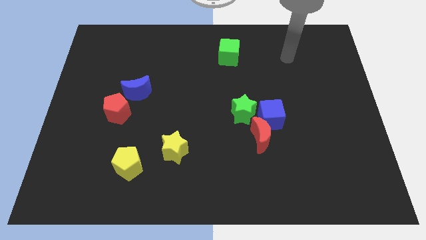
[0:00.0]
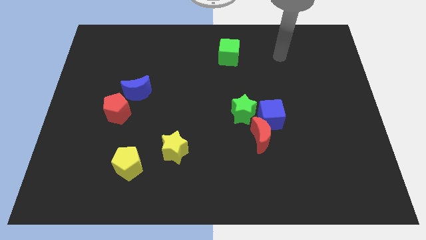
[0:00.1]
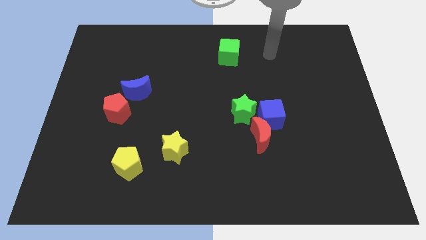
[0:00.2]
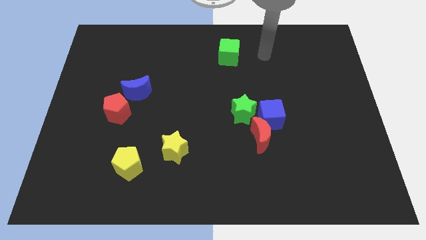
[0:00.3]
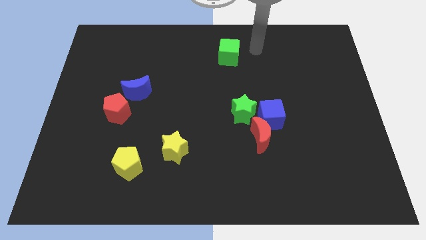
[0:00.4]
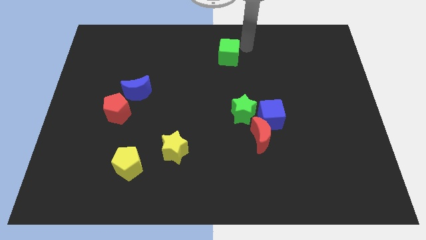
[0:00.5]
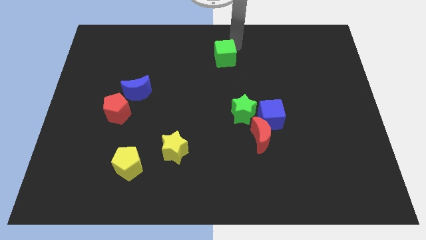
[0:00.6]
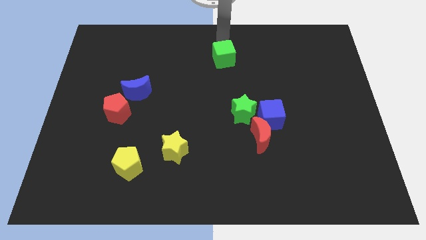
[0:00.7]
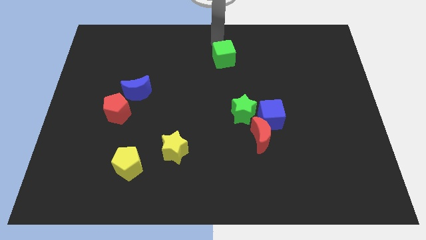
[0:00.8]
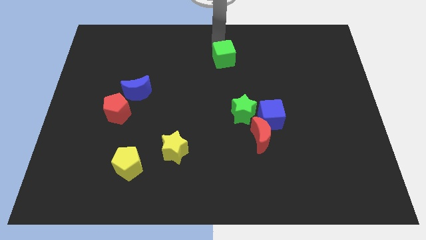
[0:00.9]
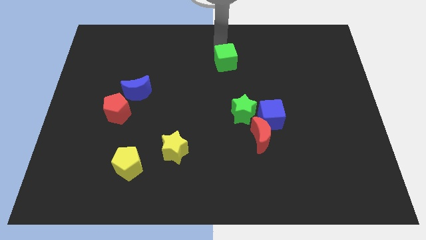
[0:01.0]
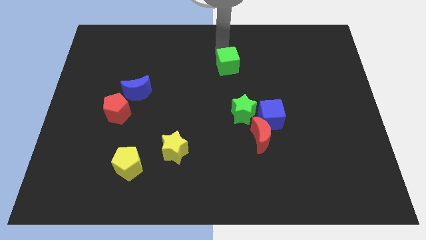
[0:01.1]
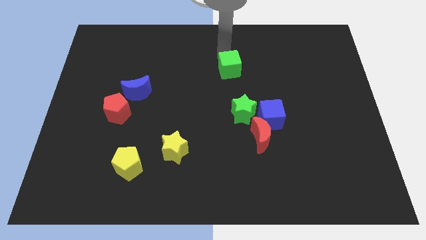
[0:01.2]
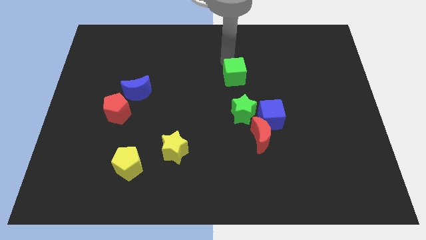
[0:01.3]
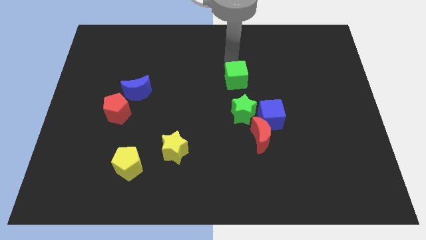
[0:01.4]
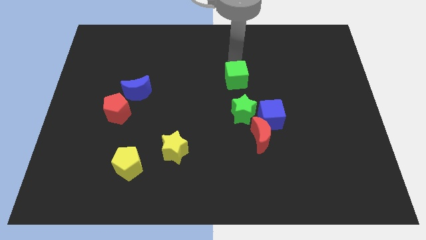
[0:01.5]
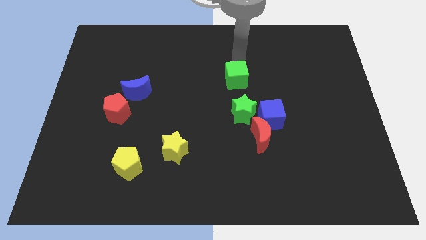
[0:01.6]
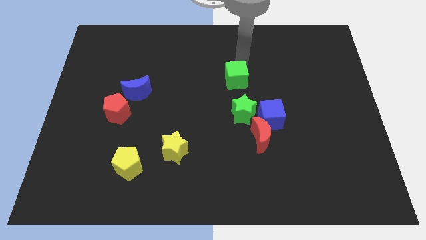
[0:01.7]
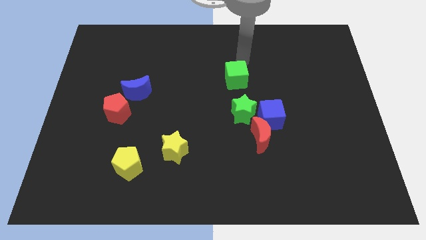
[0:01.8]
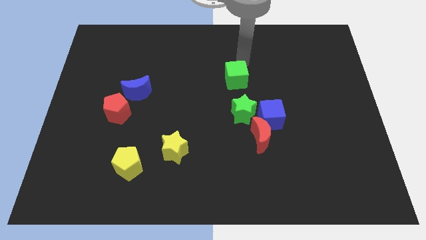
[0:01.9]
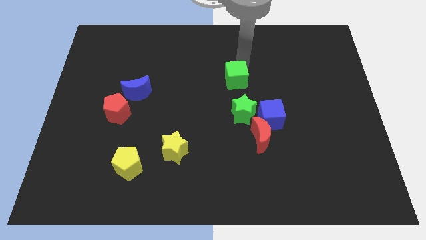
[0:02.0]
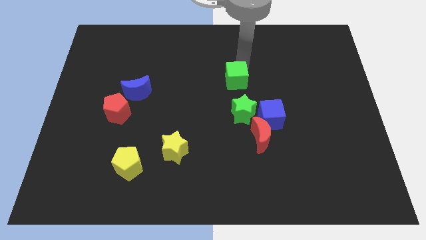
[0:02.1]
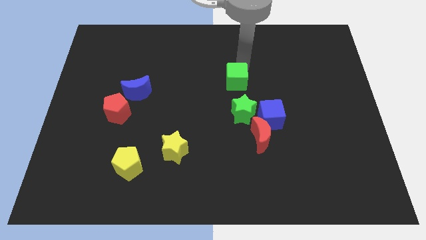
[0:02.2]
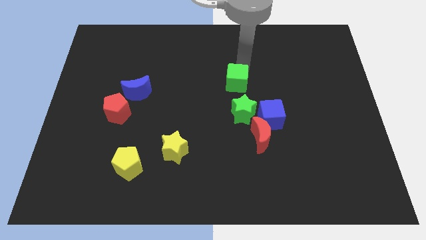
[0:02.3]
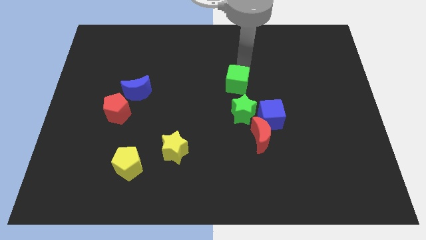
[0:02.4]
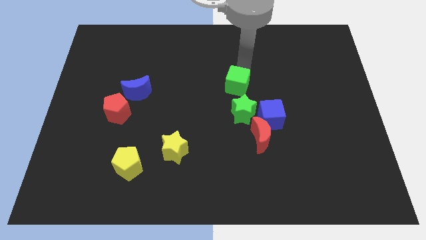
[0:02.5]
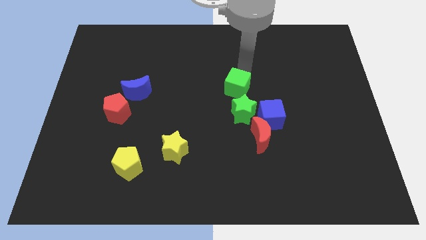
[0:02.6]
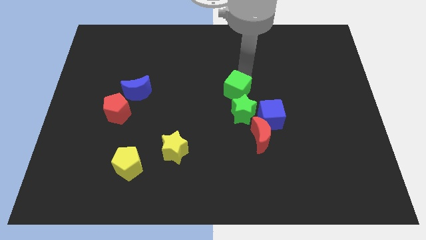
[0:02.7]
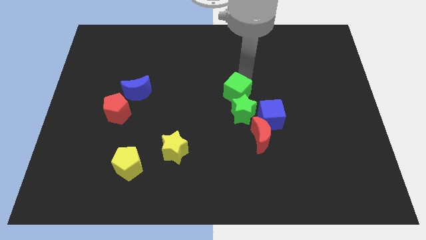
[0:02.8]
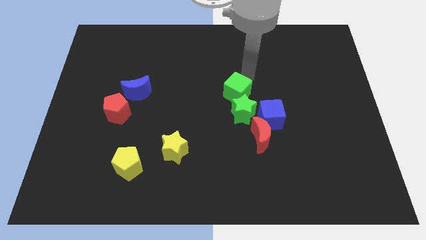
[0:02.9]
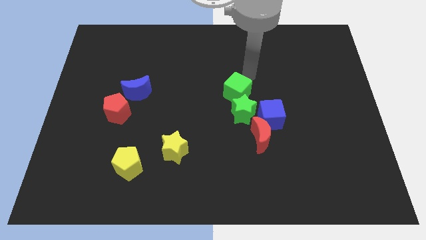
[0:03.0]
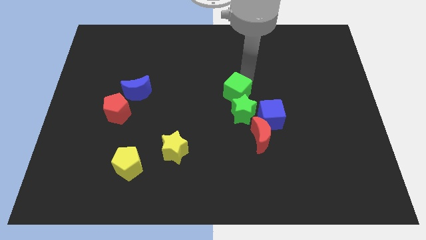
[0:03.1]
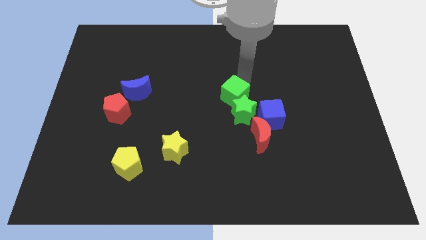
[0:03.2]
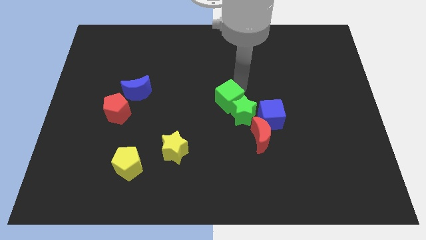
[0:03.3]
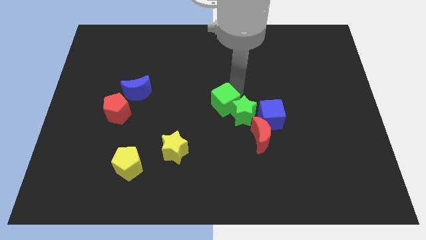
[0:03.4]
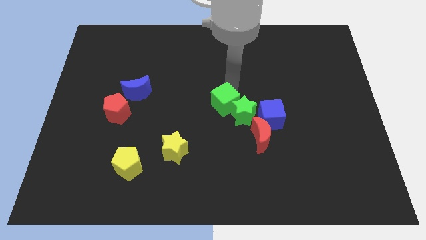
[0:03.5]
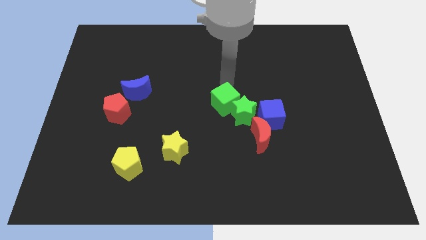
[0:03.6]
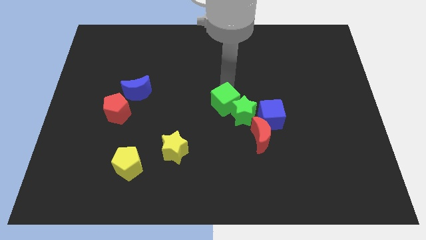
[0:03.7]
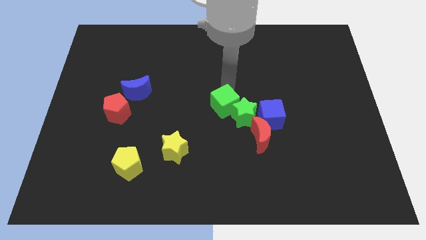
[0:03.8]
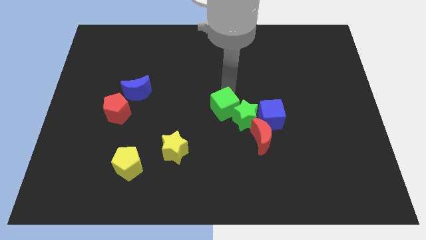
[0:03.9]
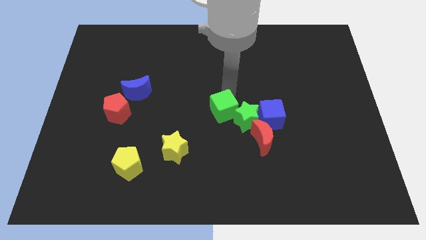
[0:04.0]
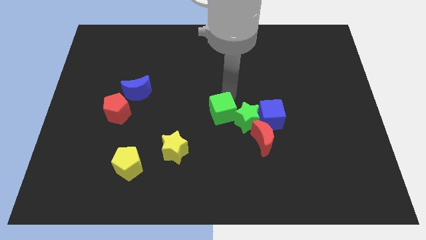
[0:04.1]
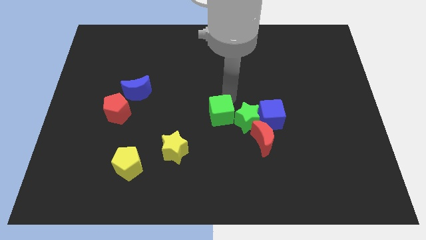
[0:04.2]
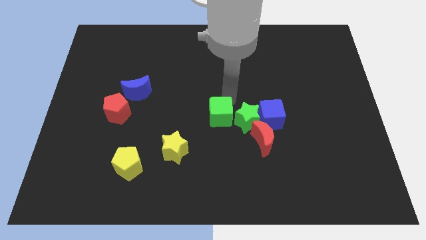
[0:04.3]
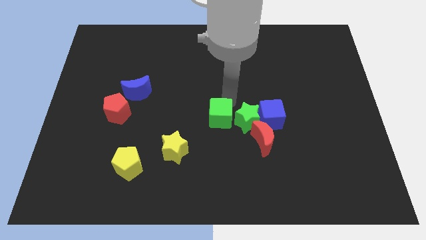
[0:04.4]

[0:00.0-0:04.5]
slide the green cube downwards

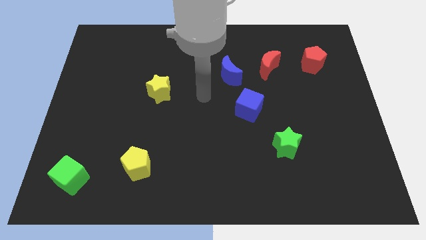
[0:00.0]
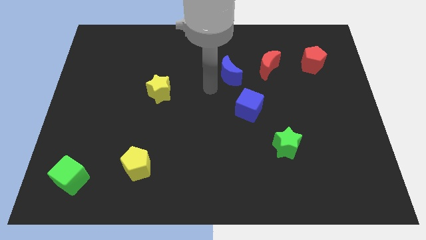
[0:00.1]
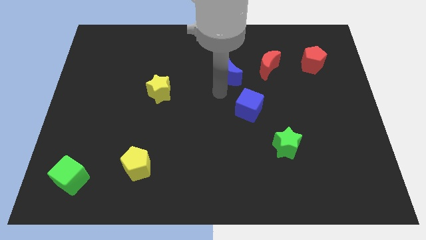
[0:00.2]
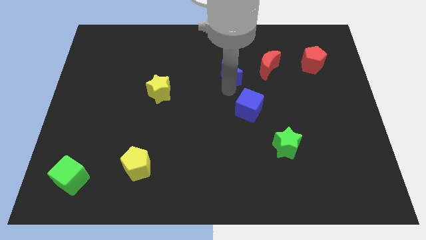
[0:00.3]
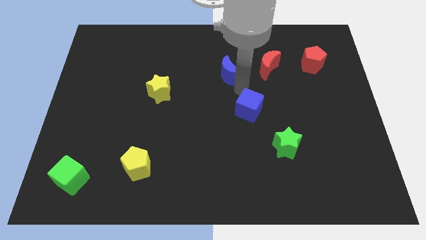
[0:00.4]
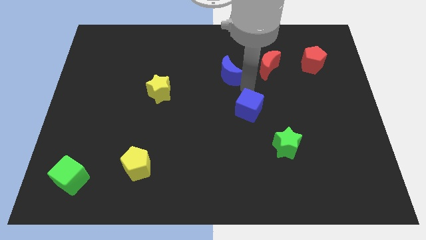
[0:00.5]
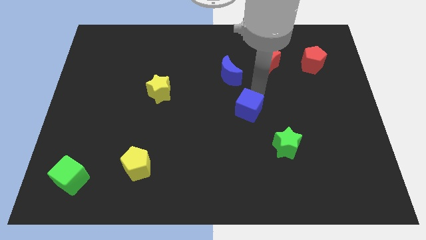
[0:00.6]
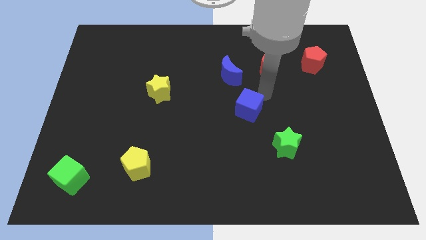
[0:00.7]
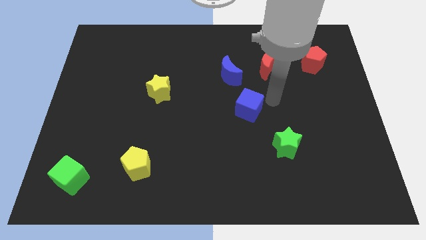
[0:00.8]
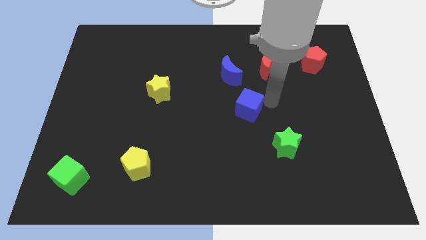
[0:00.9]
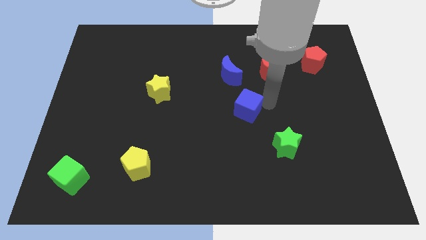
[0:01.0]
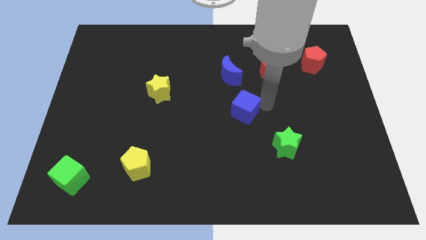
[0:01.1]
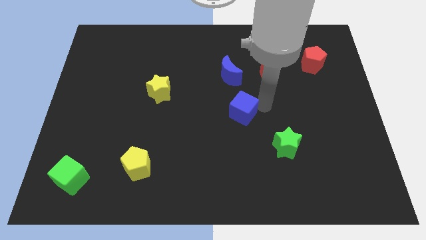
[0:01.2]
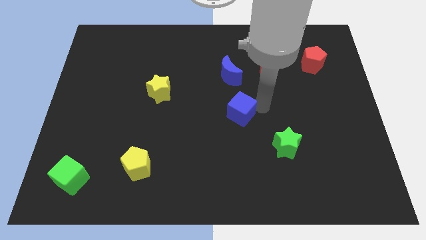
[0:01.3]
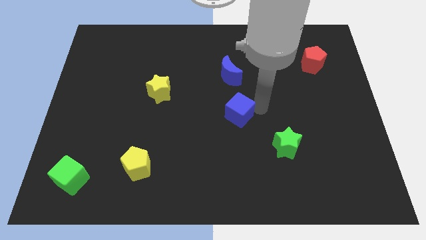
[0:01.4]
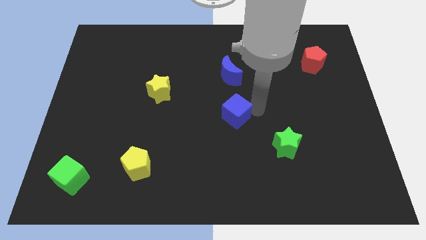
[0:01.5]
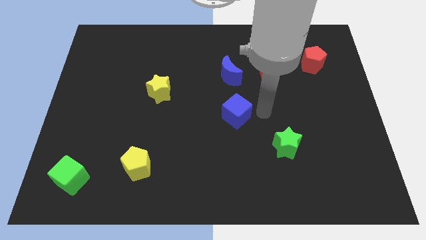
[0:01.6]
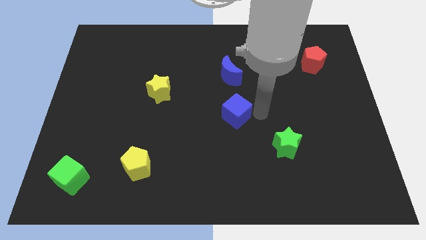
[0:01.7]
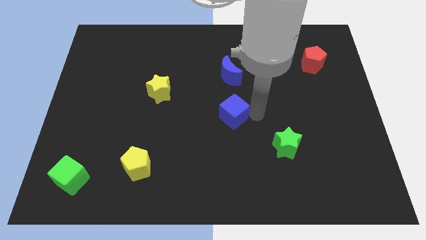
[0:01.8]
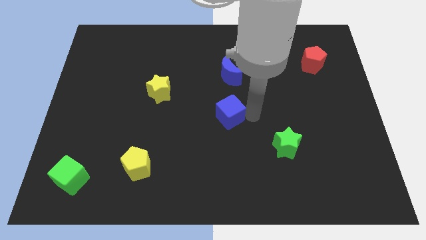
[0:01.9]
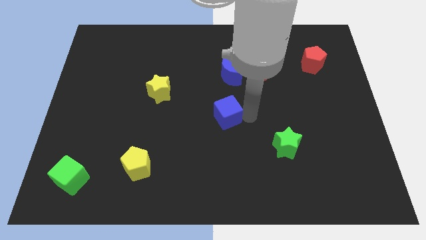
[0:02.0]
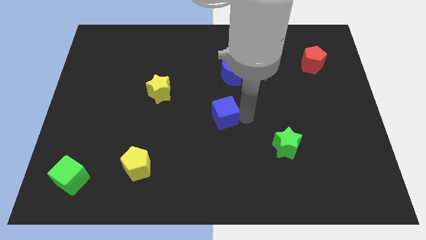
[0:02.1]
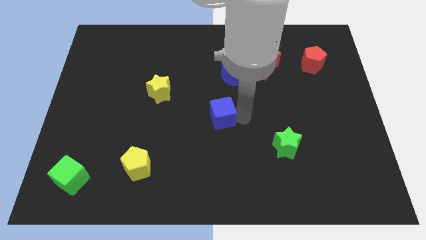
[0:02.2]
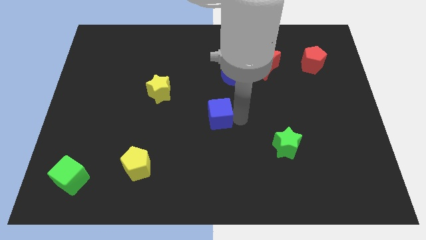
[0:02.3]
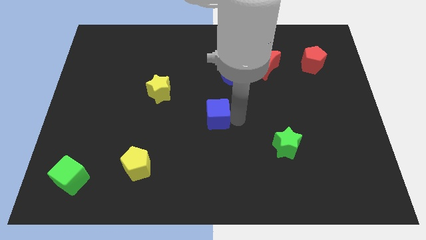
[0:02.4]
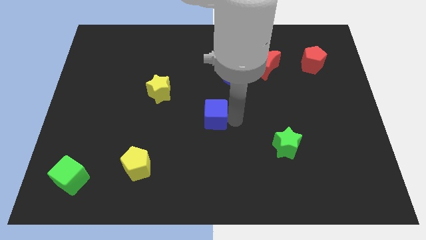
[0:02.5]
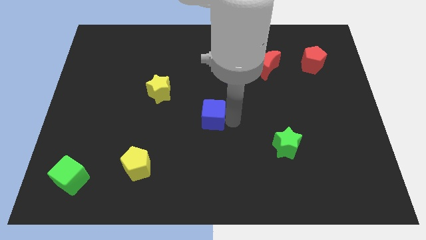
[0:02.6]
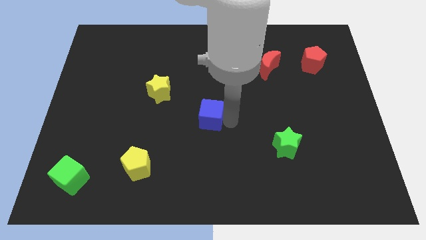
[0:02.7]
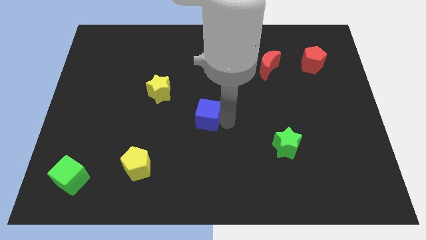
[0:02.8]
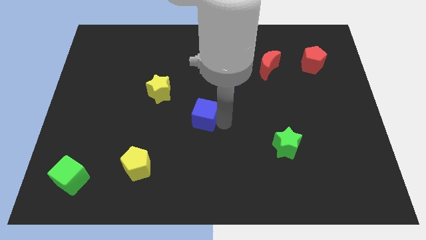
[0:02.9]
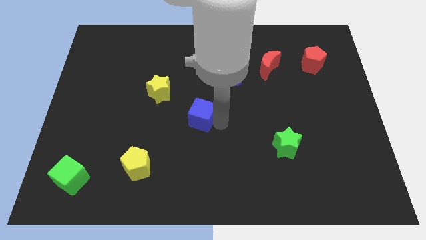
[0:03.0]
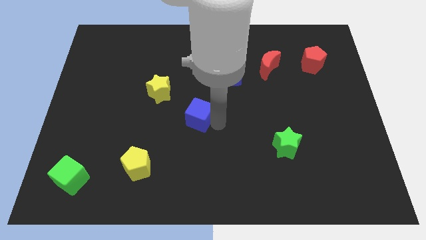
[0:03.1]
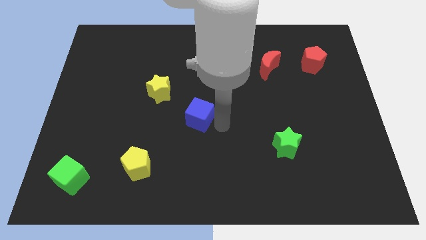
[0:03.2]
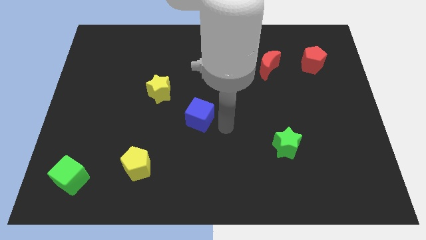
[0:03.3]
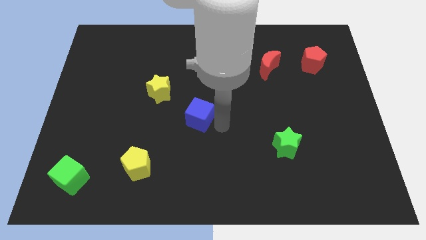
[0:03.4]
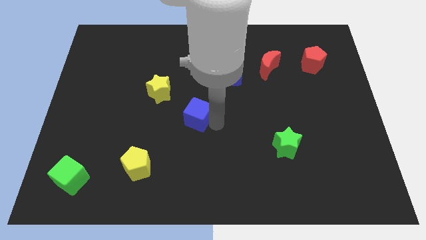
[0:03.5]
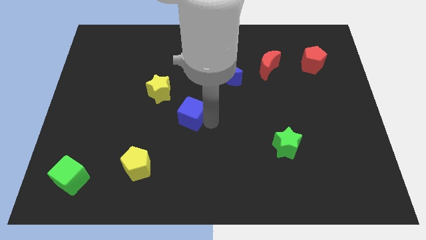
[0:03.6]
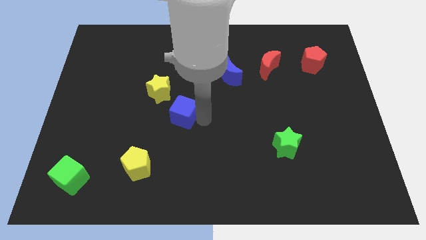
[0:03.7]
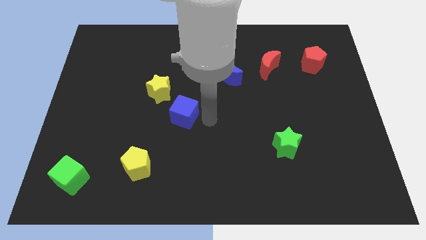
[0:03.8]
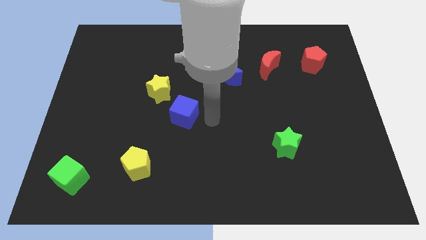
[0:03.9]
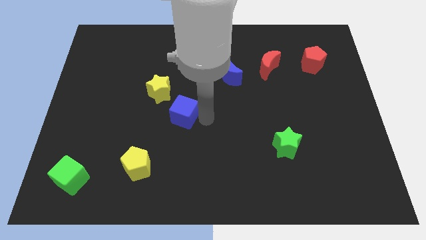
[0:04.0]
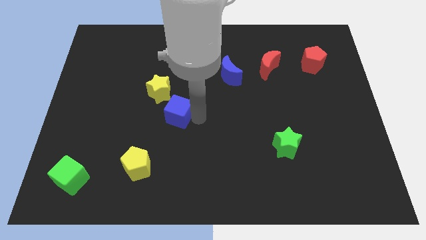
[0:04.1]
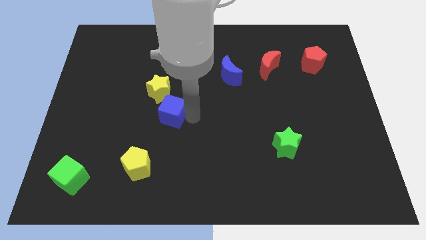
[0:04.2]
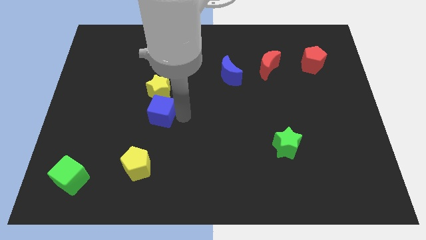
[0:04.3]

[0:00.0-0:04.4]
push the blue cube to the left
